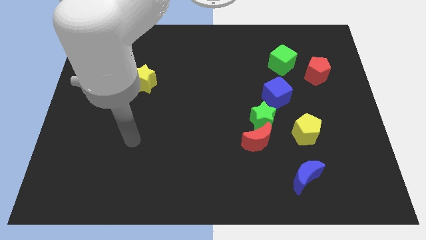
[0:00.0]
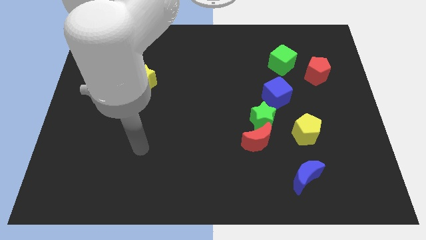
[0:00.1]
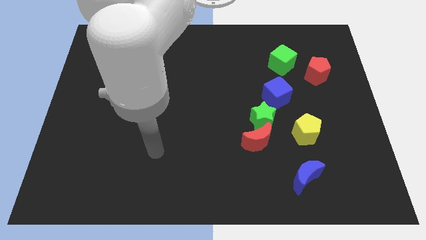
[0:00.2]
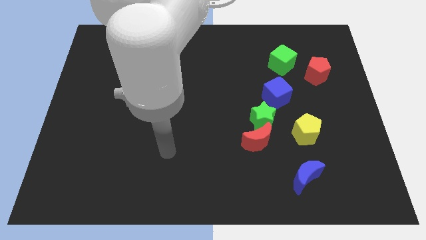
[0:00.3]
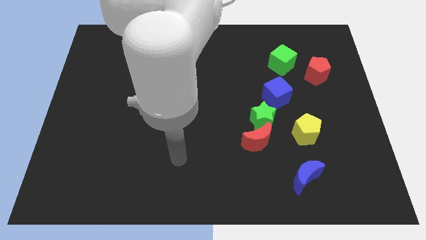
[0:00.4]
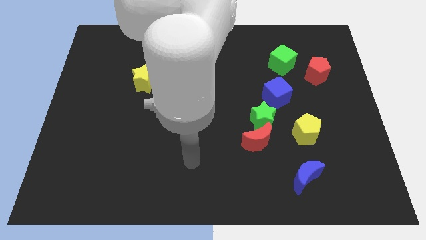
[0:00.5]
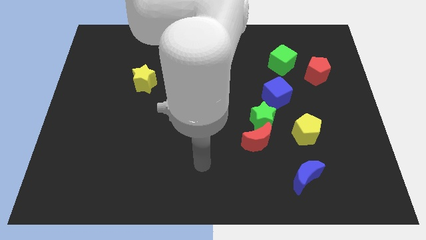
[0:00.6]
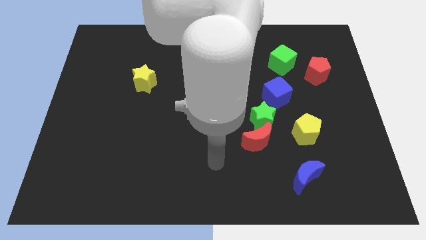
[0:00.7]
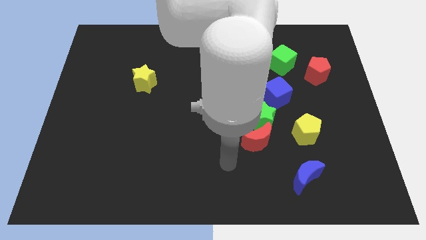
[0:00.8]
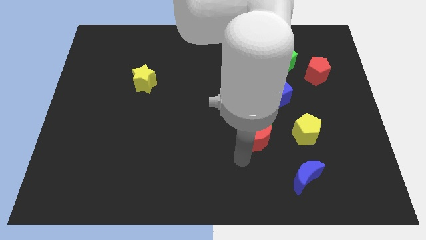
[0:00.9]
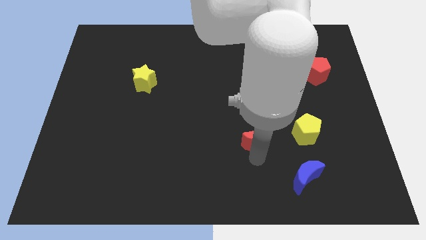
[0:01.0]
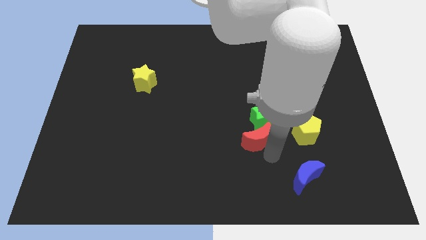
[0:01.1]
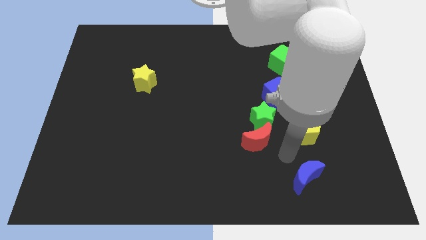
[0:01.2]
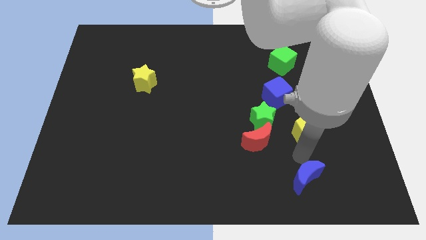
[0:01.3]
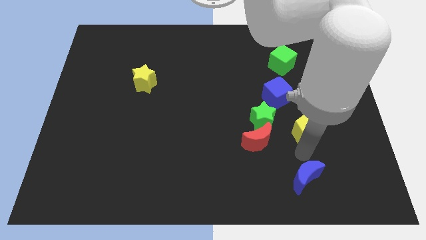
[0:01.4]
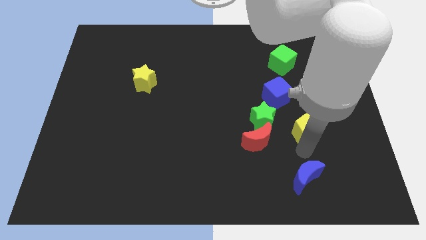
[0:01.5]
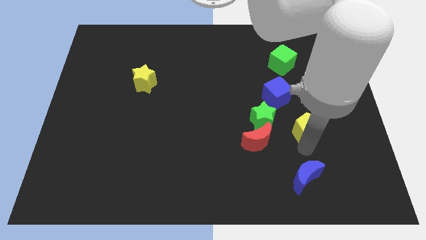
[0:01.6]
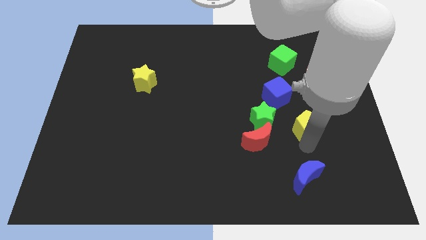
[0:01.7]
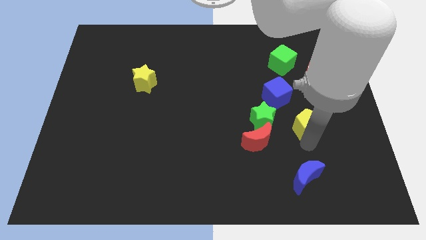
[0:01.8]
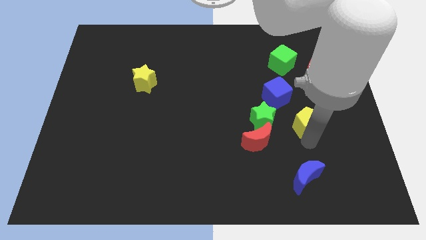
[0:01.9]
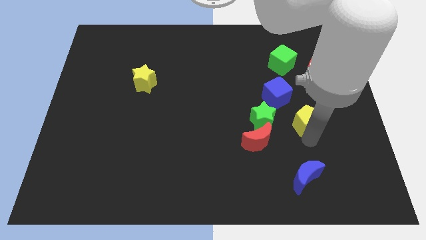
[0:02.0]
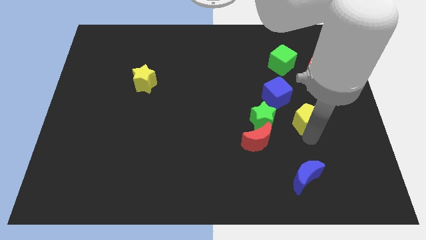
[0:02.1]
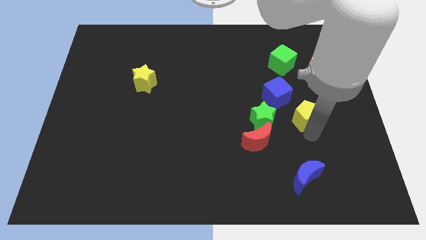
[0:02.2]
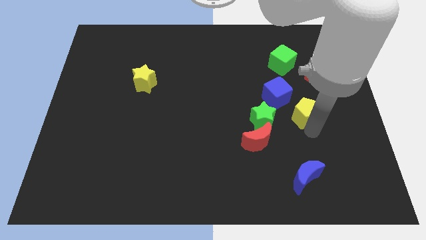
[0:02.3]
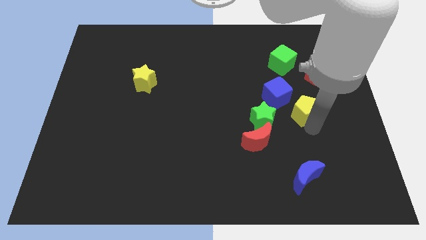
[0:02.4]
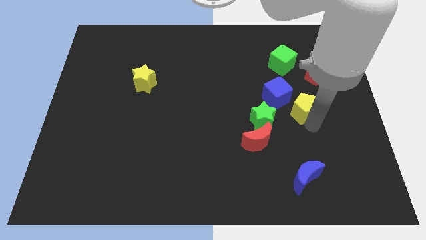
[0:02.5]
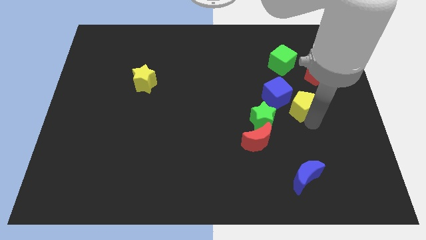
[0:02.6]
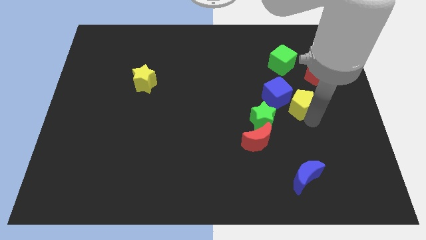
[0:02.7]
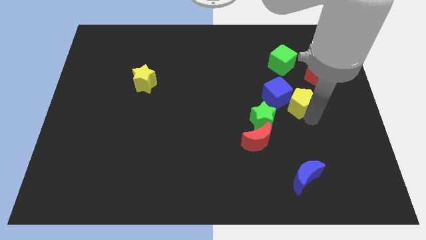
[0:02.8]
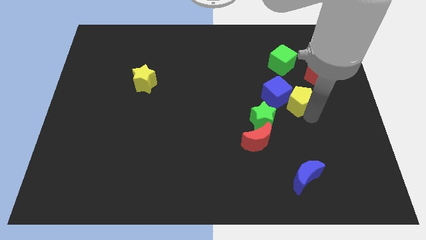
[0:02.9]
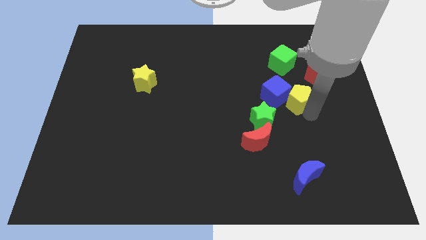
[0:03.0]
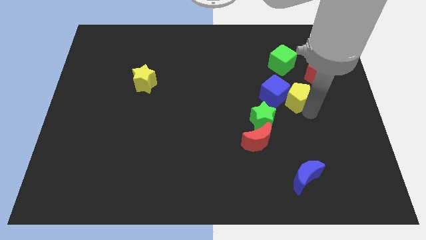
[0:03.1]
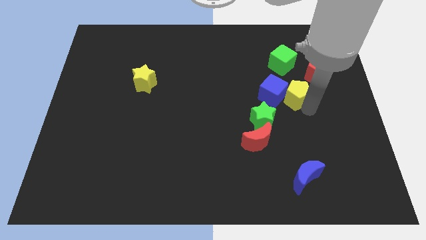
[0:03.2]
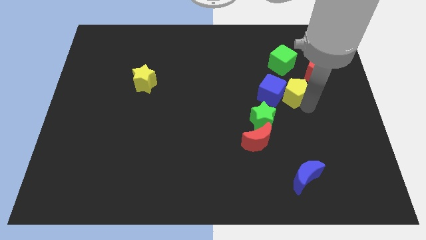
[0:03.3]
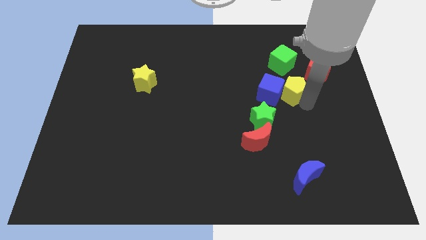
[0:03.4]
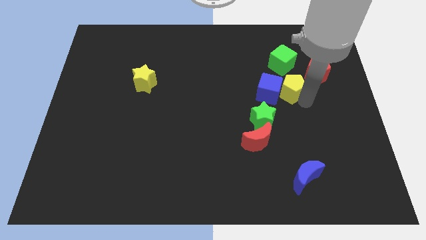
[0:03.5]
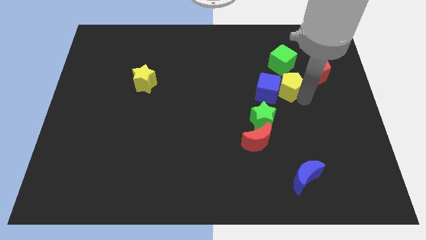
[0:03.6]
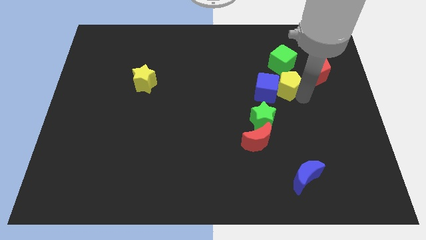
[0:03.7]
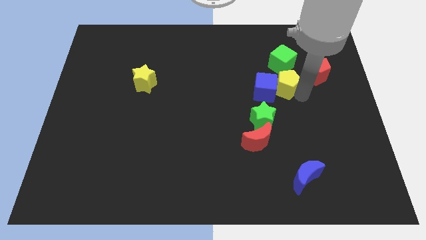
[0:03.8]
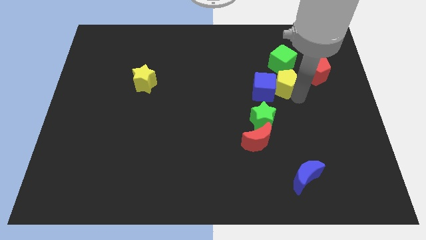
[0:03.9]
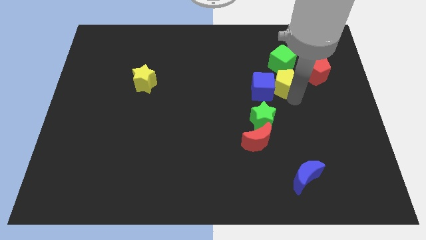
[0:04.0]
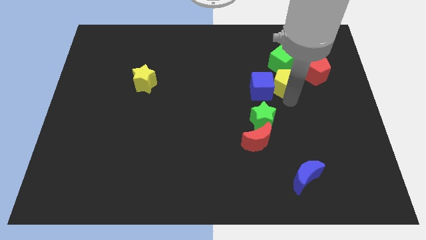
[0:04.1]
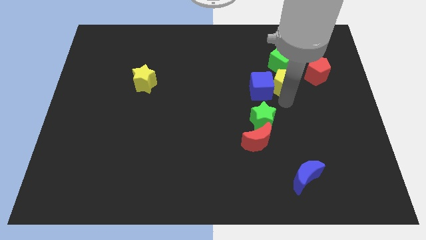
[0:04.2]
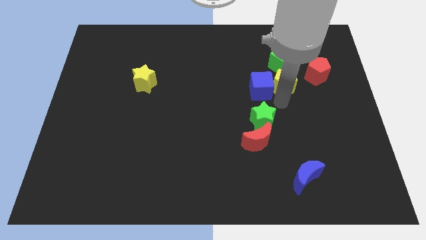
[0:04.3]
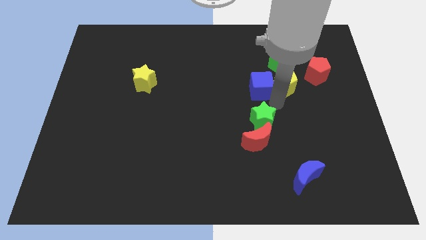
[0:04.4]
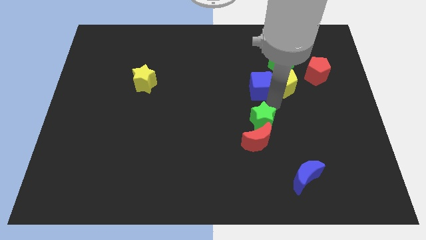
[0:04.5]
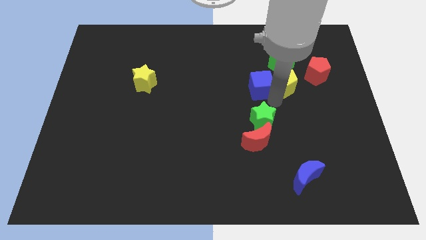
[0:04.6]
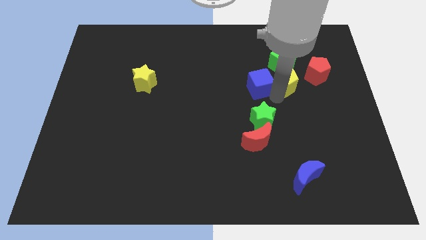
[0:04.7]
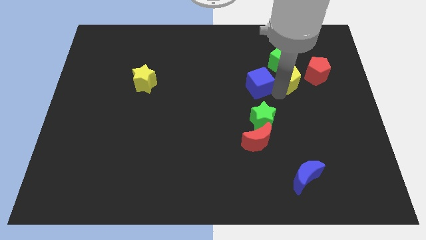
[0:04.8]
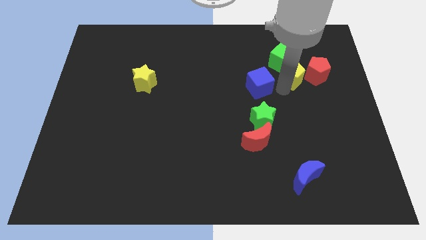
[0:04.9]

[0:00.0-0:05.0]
slide the yellow pentagon to the green cube

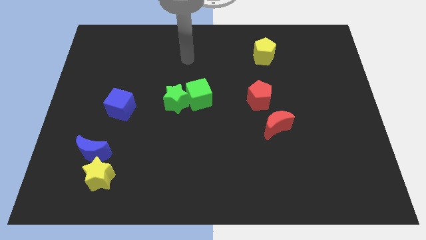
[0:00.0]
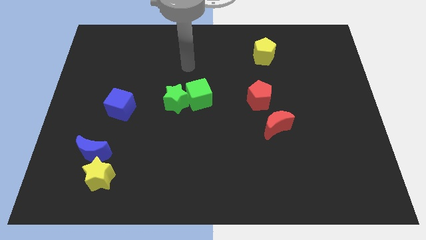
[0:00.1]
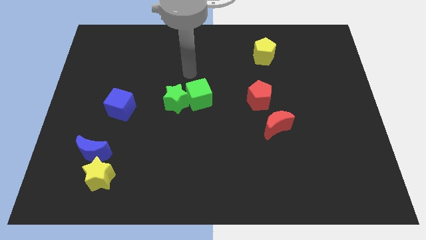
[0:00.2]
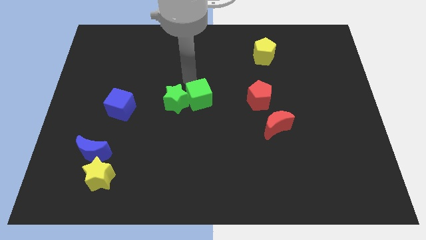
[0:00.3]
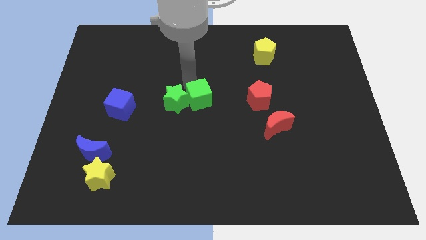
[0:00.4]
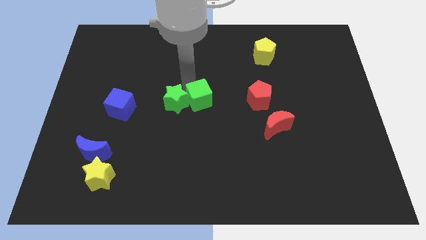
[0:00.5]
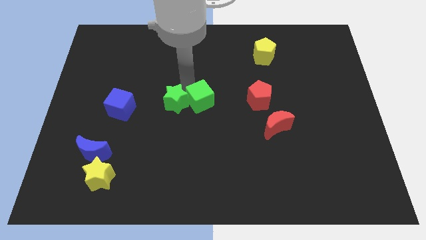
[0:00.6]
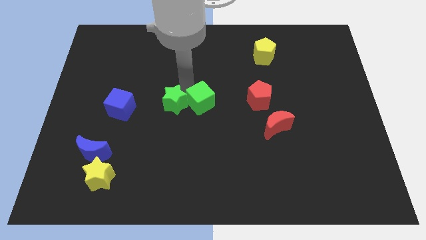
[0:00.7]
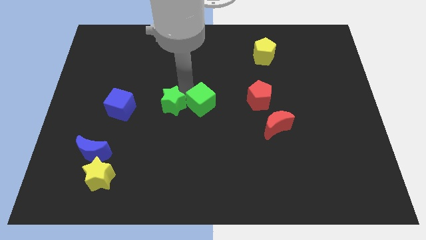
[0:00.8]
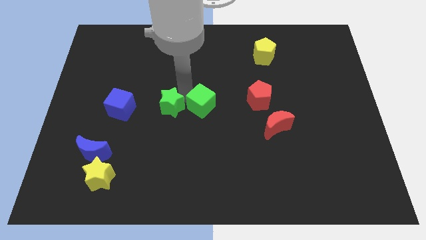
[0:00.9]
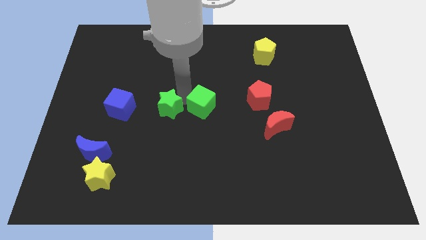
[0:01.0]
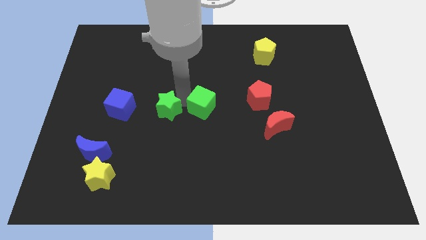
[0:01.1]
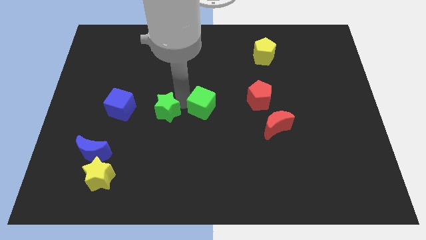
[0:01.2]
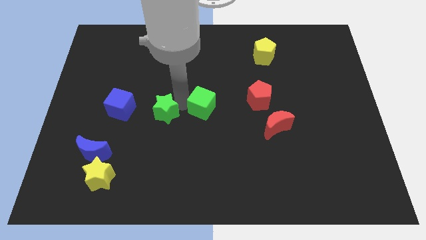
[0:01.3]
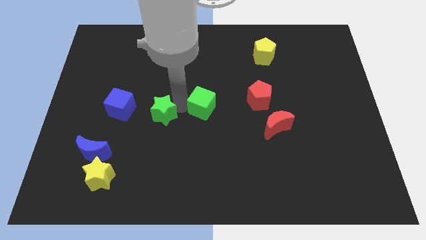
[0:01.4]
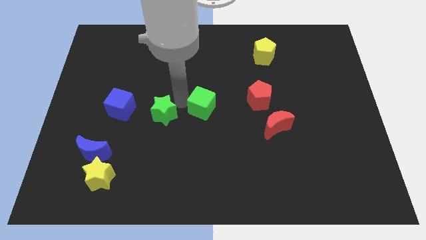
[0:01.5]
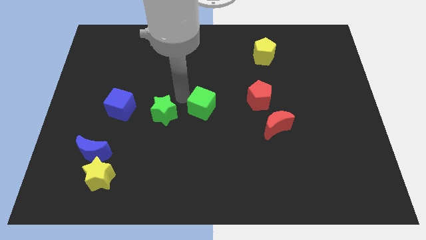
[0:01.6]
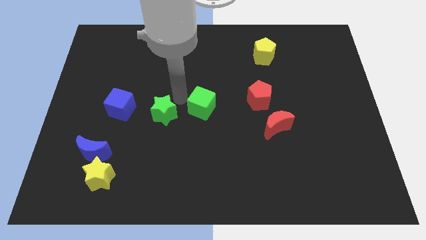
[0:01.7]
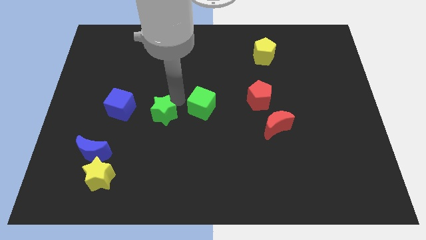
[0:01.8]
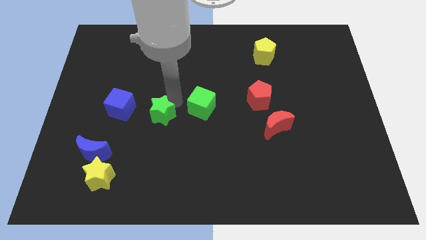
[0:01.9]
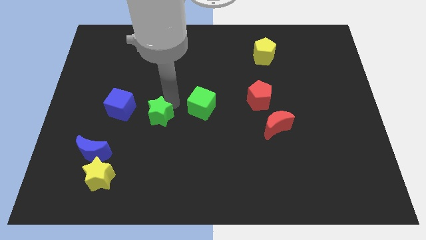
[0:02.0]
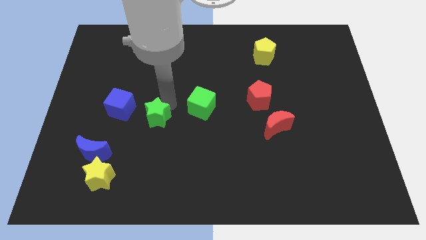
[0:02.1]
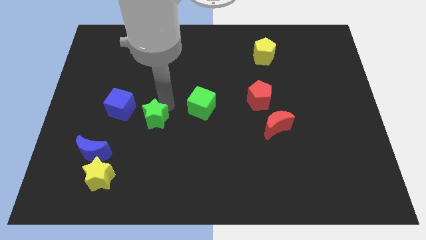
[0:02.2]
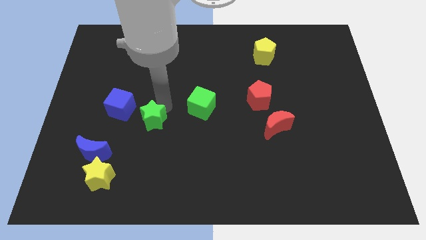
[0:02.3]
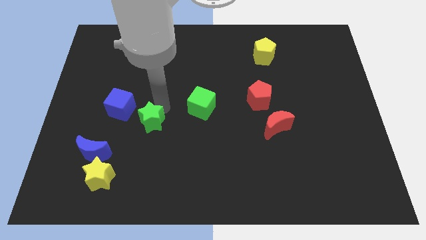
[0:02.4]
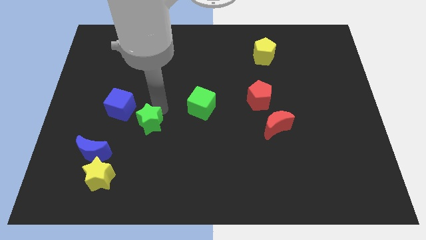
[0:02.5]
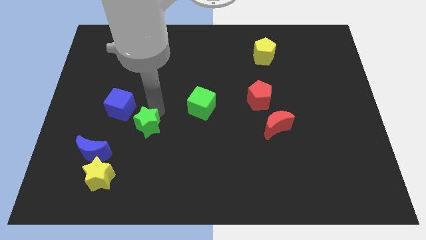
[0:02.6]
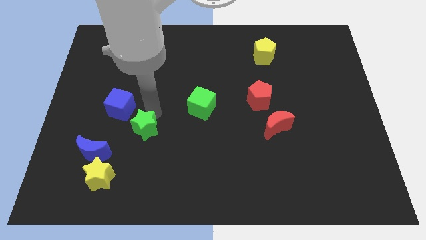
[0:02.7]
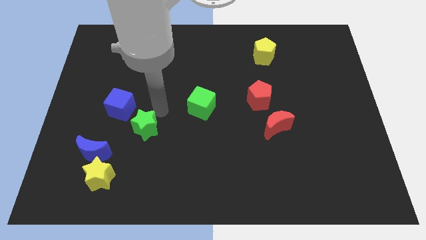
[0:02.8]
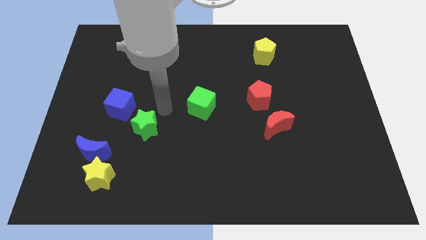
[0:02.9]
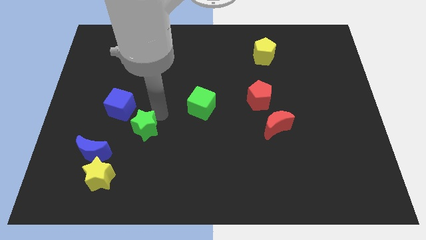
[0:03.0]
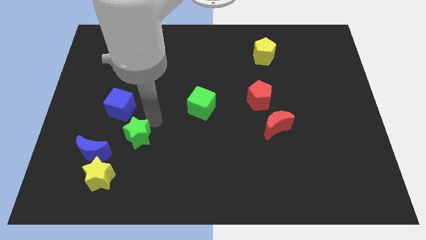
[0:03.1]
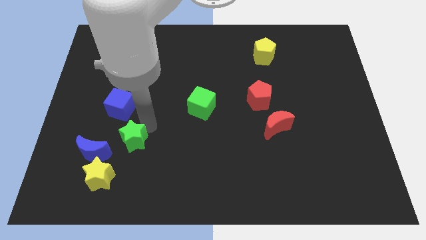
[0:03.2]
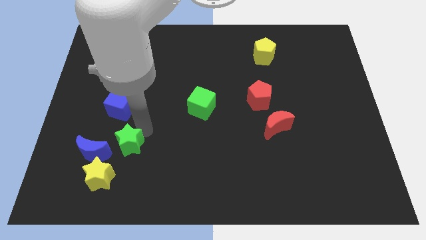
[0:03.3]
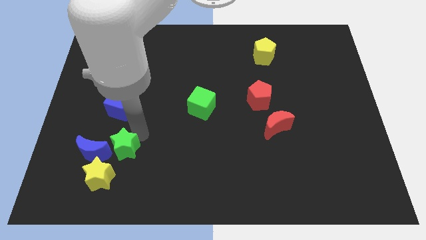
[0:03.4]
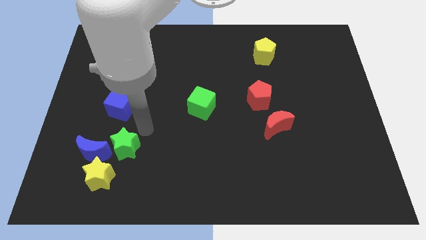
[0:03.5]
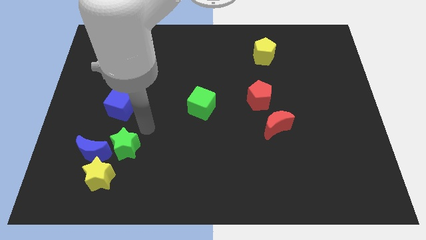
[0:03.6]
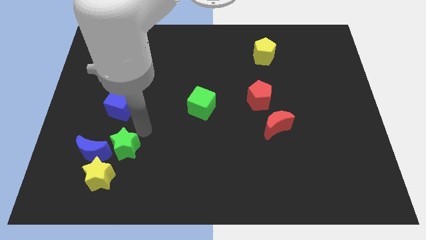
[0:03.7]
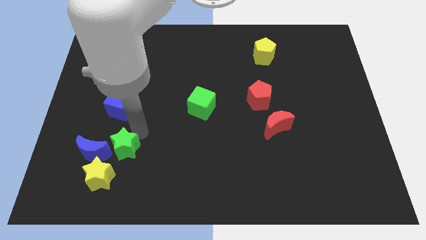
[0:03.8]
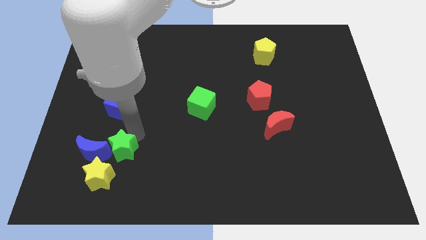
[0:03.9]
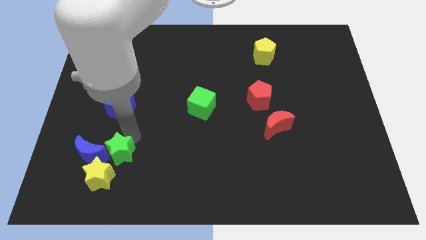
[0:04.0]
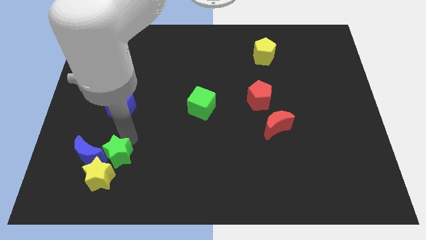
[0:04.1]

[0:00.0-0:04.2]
put the green star next to the yellow star
